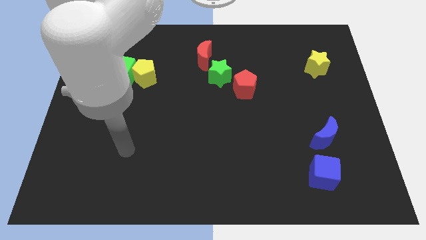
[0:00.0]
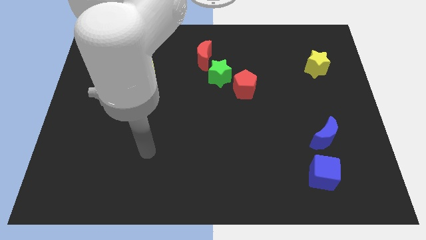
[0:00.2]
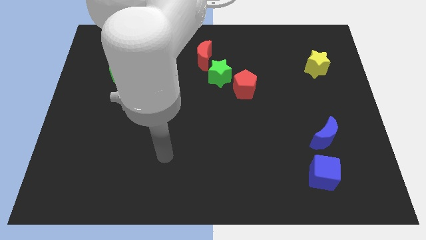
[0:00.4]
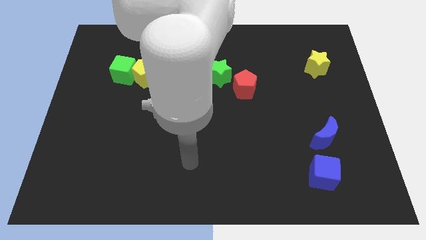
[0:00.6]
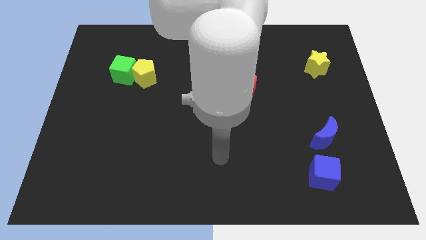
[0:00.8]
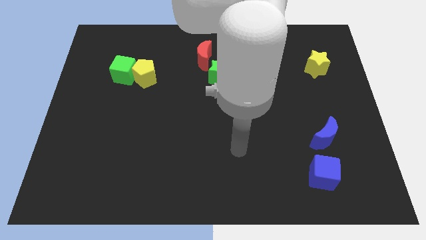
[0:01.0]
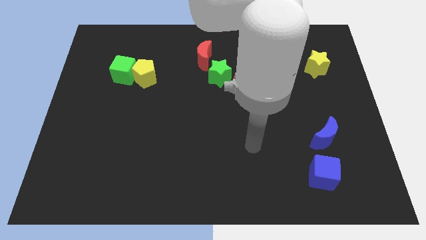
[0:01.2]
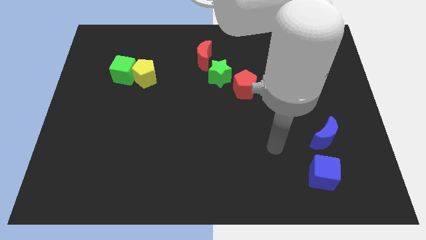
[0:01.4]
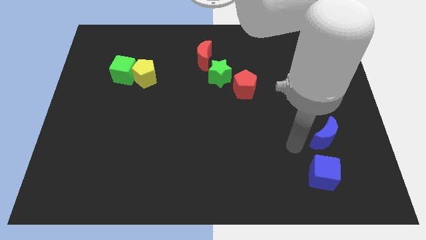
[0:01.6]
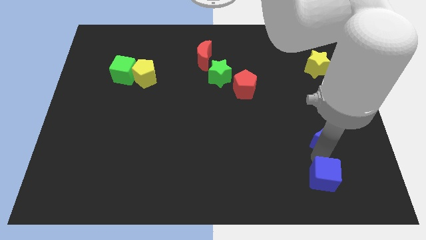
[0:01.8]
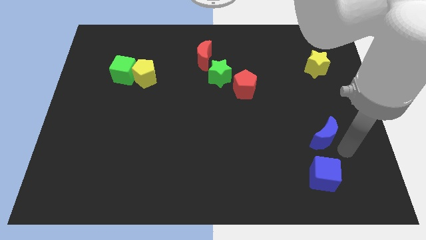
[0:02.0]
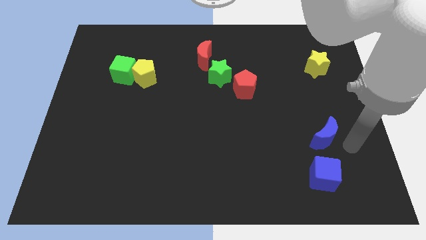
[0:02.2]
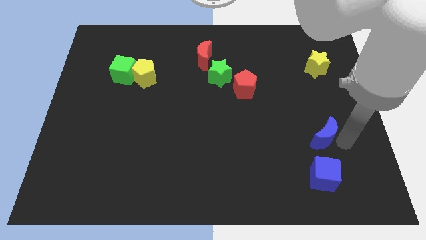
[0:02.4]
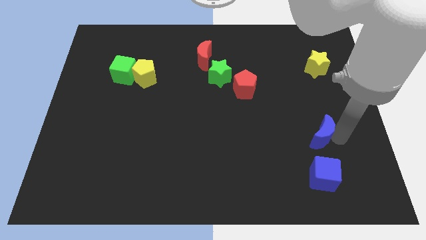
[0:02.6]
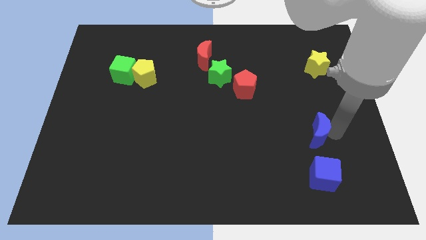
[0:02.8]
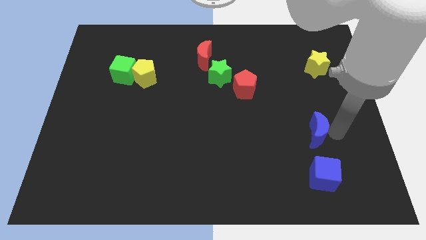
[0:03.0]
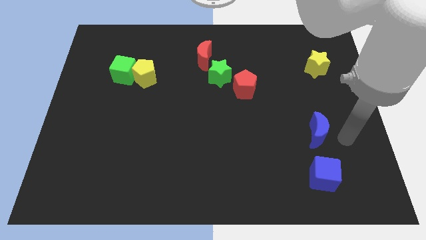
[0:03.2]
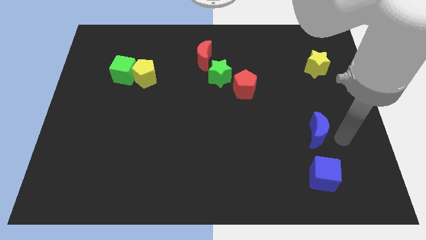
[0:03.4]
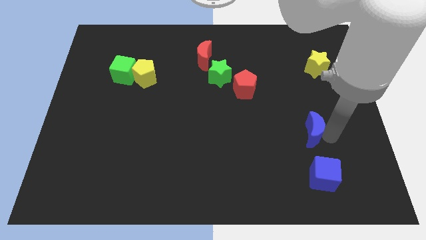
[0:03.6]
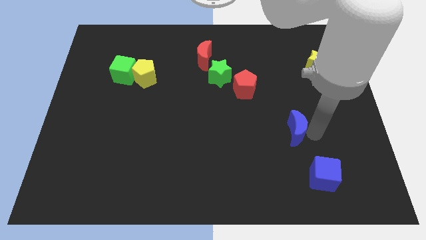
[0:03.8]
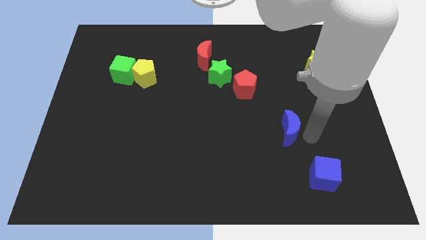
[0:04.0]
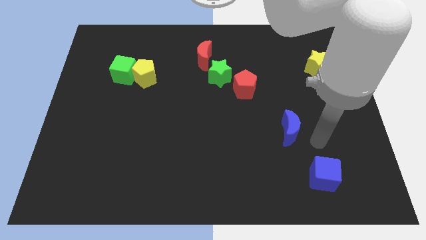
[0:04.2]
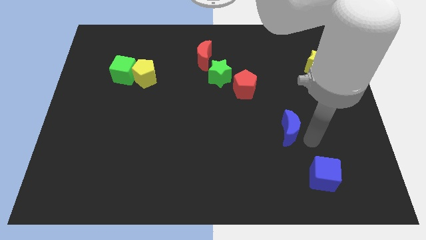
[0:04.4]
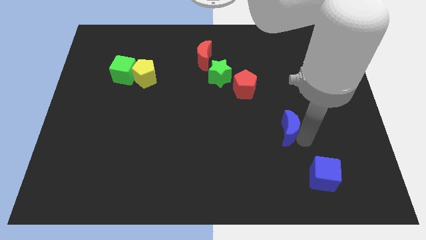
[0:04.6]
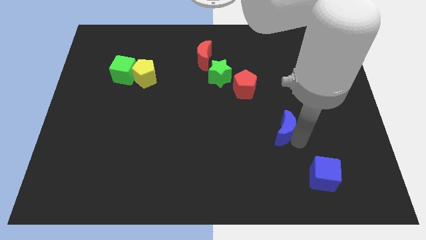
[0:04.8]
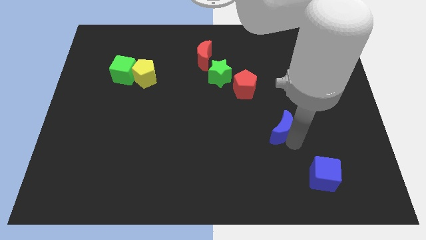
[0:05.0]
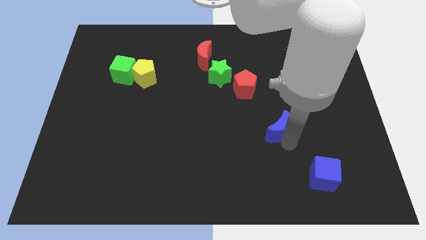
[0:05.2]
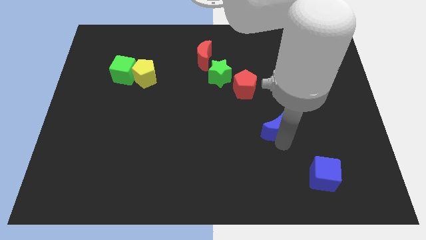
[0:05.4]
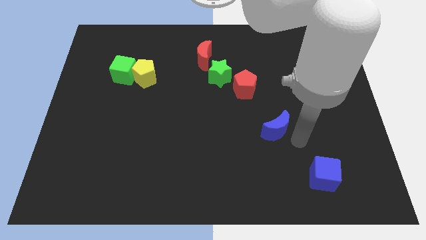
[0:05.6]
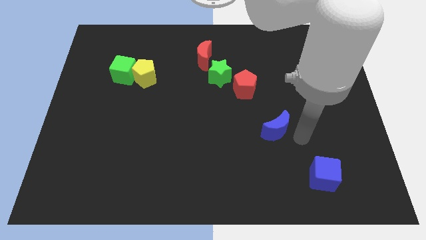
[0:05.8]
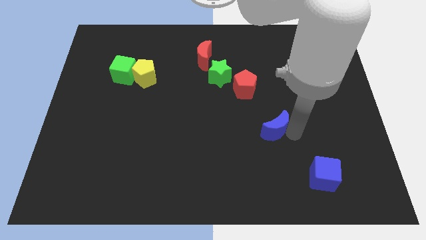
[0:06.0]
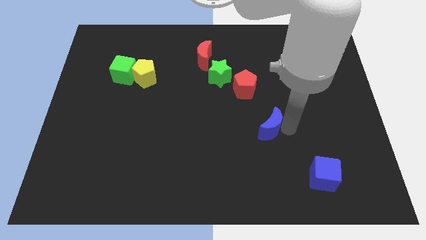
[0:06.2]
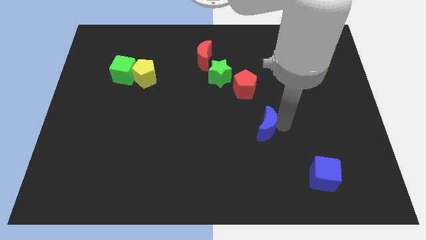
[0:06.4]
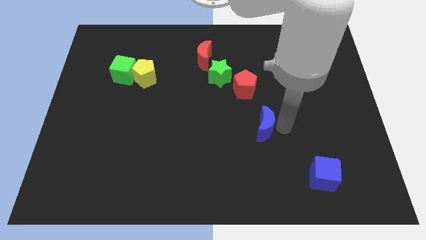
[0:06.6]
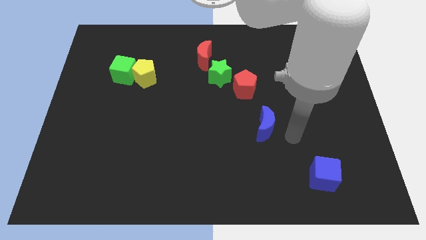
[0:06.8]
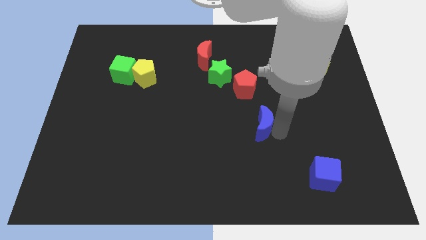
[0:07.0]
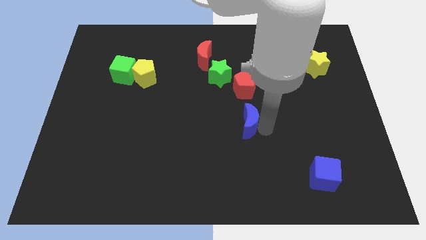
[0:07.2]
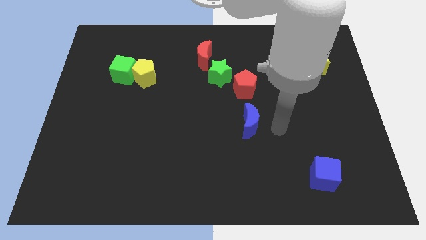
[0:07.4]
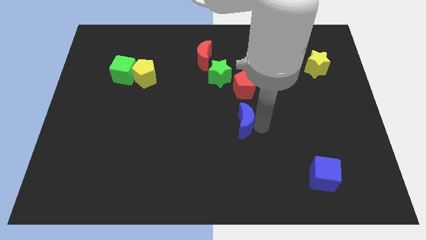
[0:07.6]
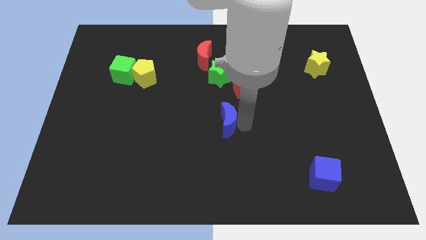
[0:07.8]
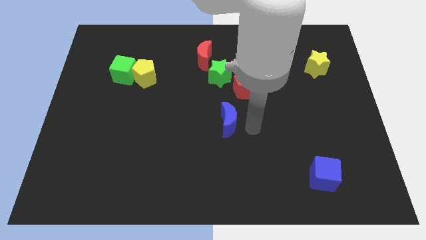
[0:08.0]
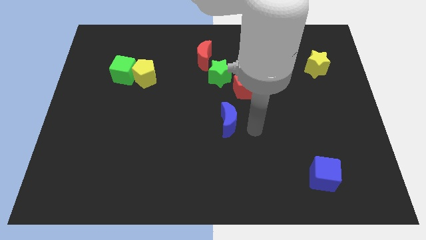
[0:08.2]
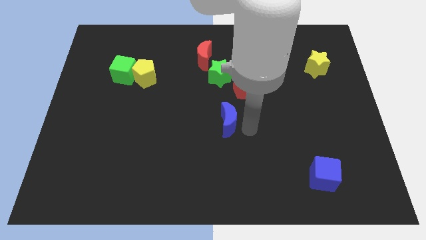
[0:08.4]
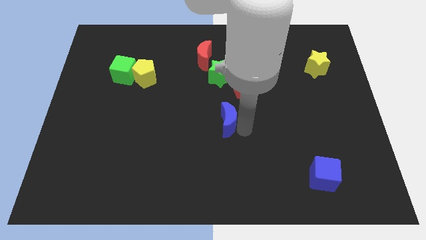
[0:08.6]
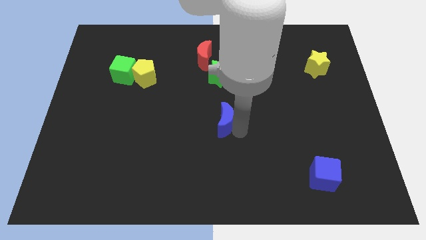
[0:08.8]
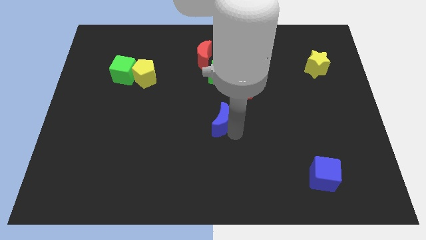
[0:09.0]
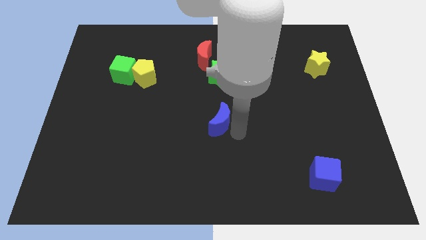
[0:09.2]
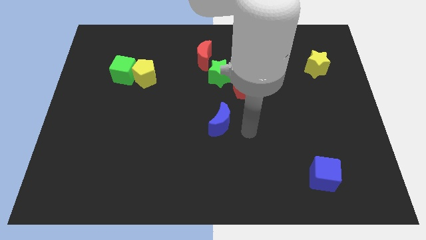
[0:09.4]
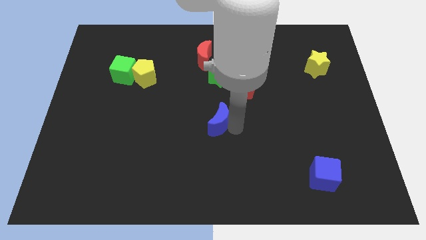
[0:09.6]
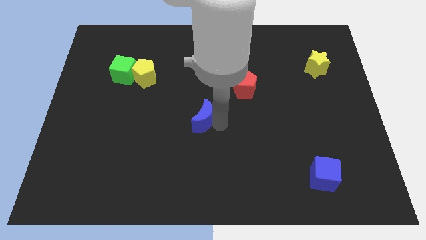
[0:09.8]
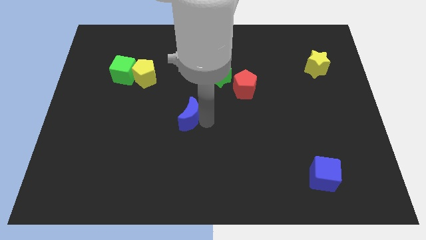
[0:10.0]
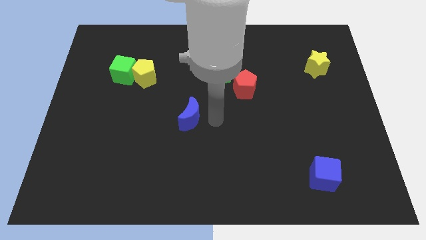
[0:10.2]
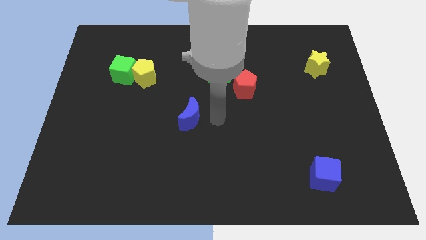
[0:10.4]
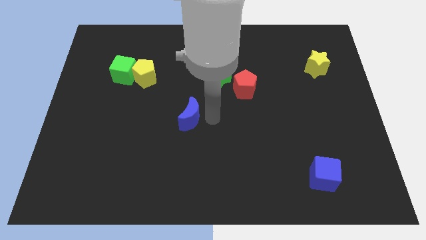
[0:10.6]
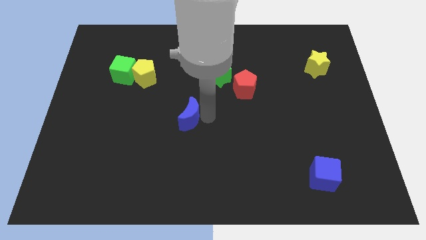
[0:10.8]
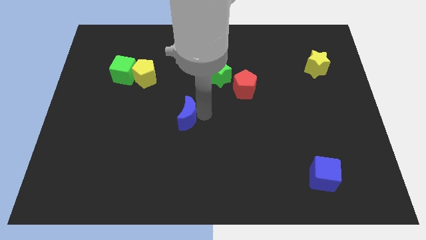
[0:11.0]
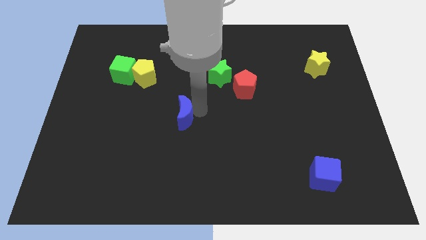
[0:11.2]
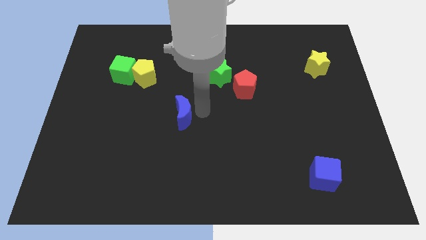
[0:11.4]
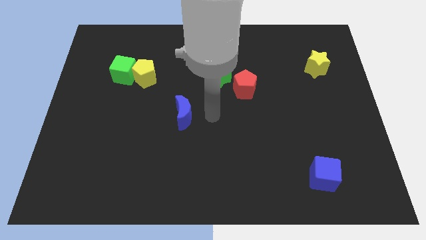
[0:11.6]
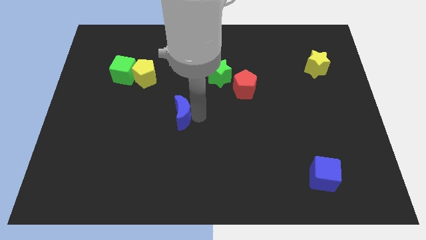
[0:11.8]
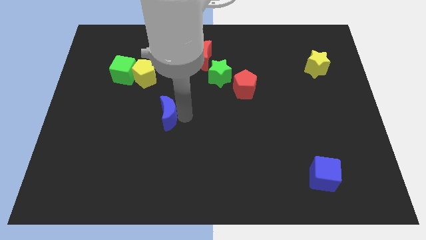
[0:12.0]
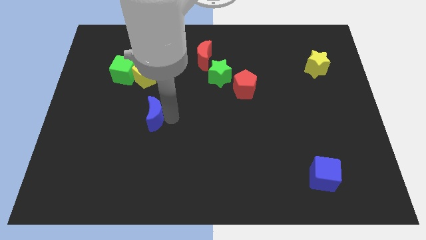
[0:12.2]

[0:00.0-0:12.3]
move the blue moon to the bottom of the yellow pentagon
